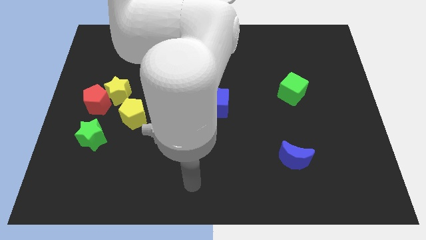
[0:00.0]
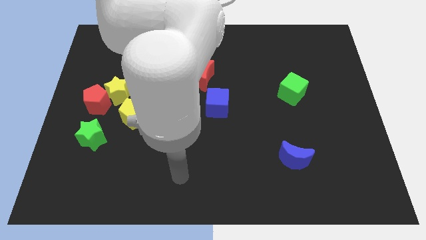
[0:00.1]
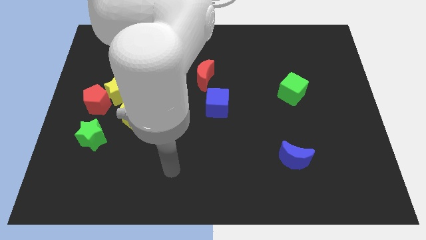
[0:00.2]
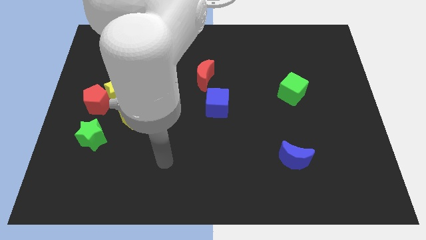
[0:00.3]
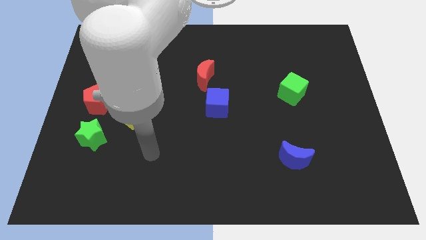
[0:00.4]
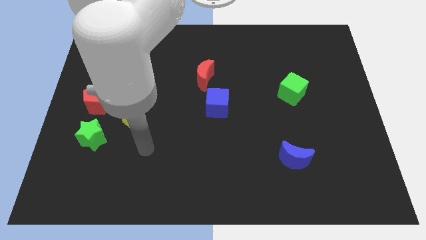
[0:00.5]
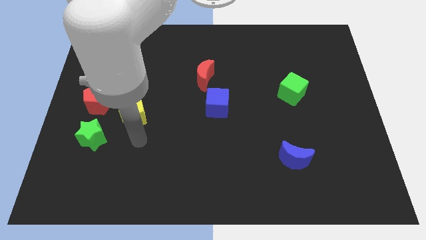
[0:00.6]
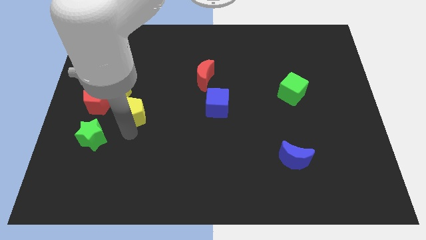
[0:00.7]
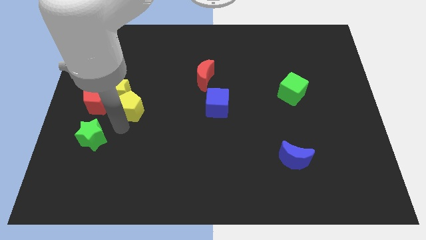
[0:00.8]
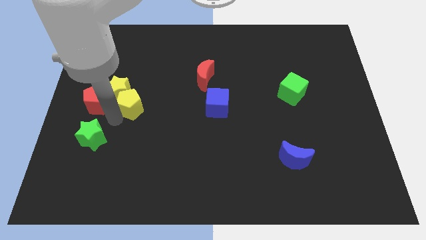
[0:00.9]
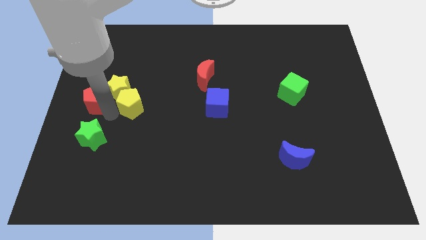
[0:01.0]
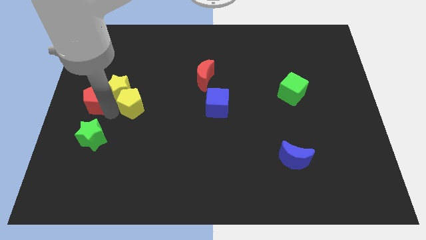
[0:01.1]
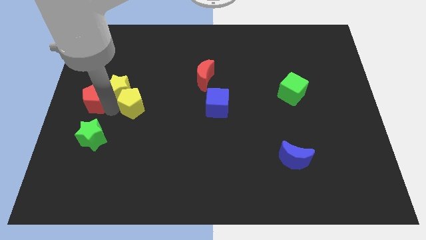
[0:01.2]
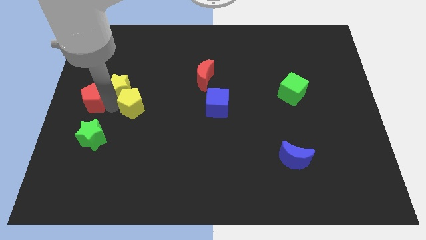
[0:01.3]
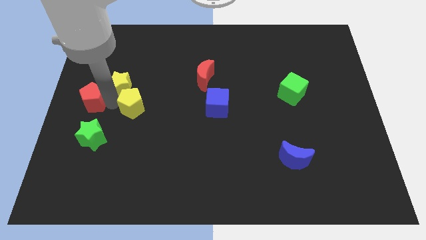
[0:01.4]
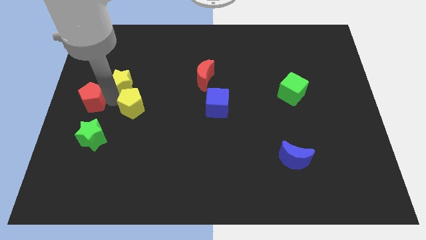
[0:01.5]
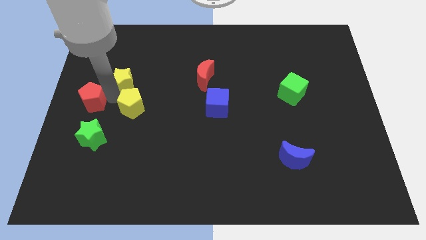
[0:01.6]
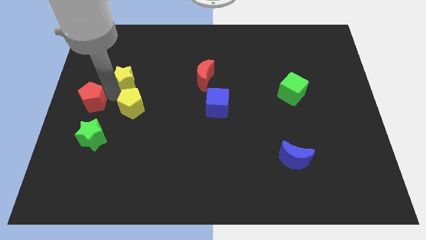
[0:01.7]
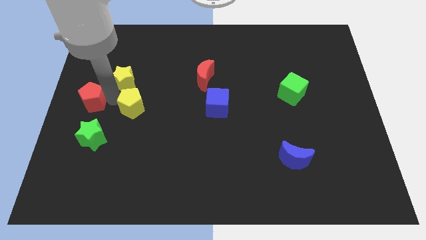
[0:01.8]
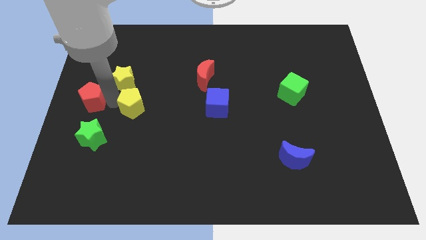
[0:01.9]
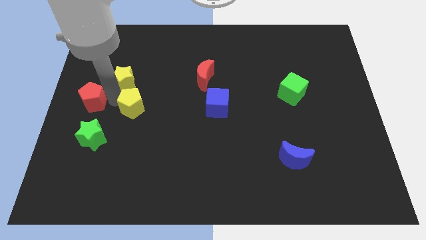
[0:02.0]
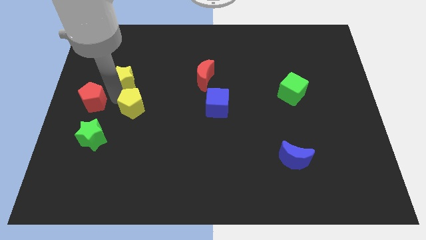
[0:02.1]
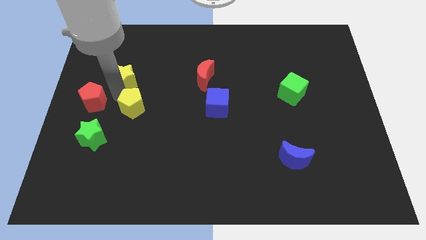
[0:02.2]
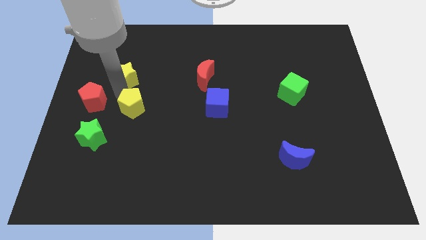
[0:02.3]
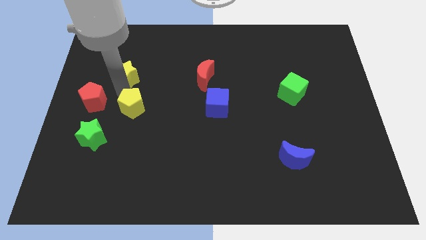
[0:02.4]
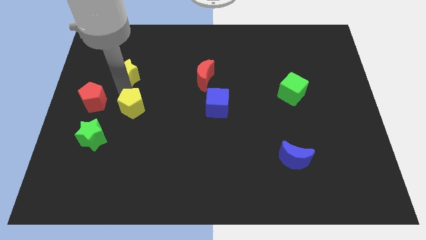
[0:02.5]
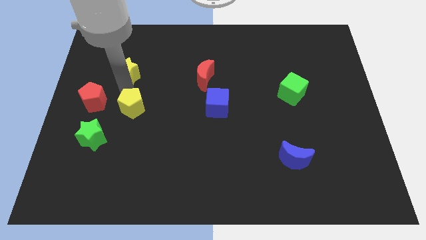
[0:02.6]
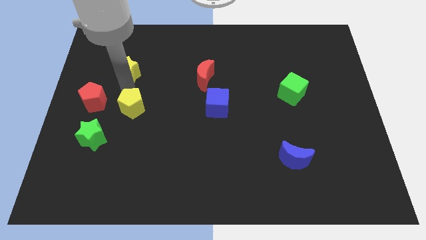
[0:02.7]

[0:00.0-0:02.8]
move the yellow star away from the red pentagon and yellow pentagon

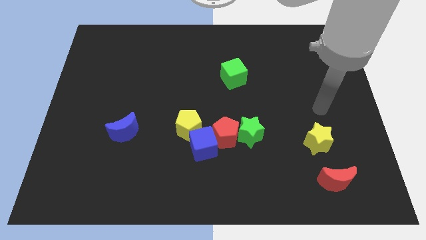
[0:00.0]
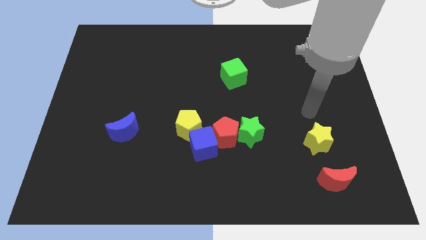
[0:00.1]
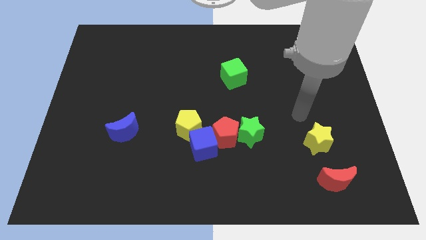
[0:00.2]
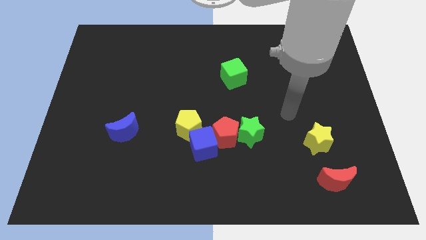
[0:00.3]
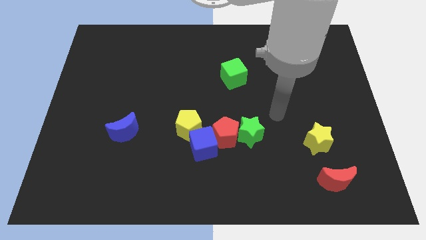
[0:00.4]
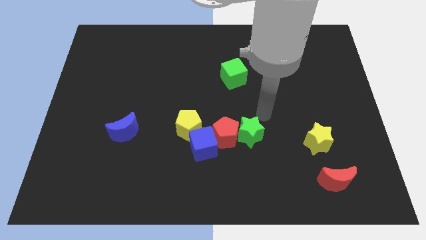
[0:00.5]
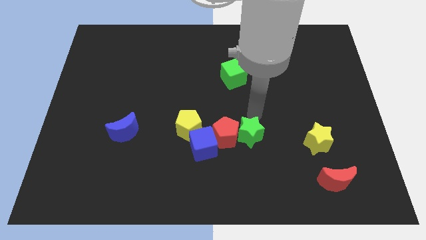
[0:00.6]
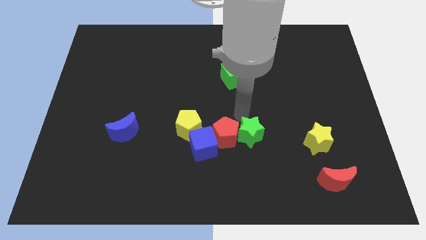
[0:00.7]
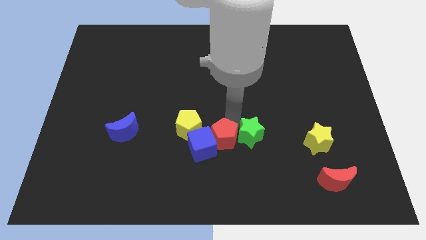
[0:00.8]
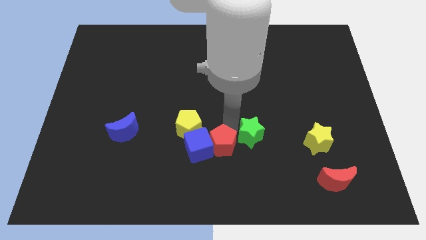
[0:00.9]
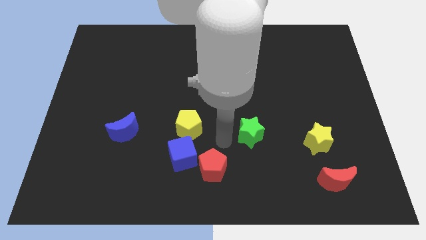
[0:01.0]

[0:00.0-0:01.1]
move the green star away from the red pentagon

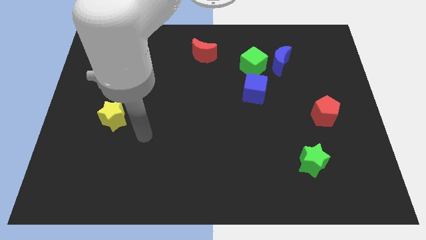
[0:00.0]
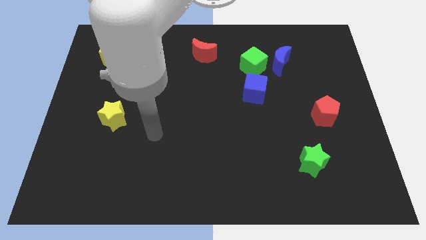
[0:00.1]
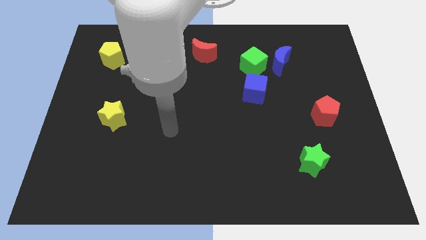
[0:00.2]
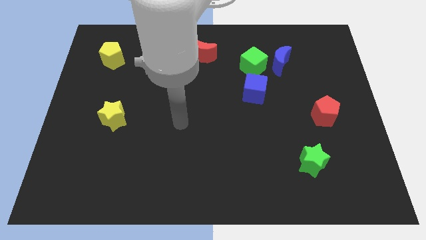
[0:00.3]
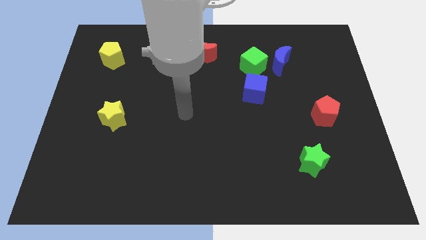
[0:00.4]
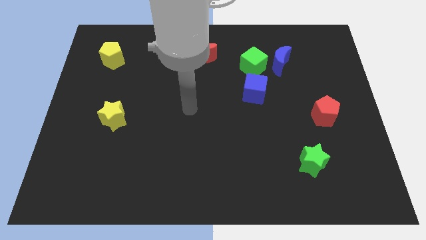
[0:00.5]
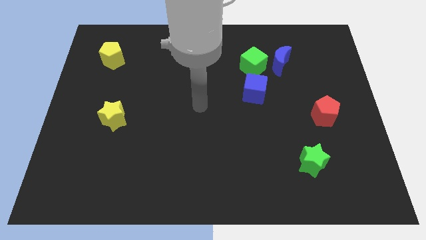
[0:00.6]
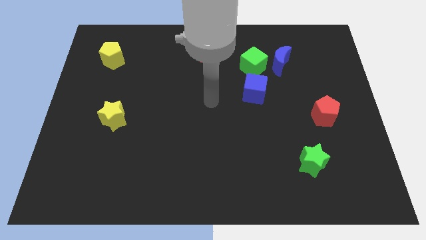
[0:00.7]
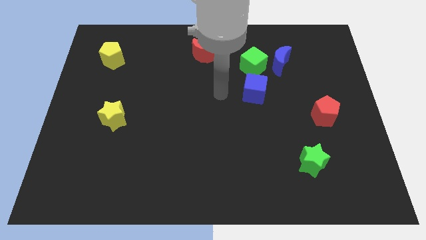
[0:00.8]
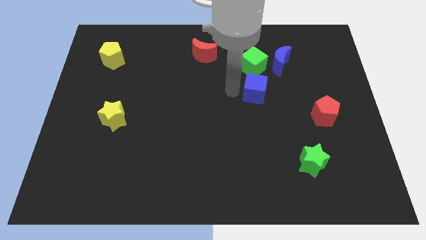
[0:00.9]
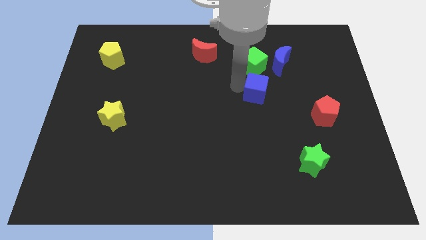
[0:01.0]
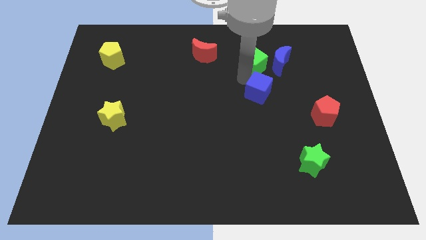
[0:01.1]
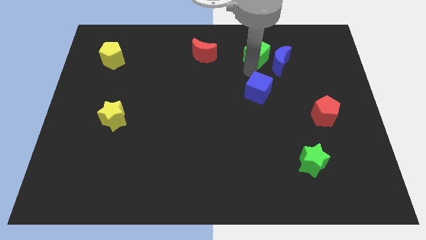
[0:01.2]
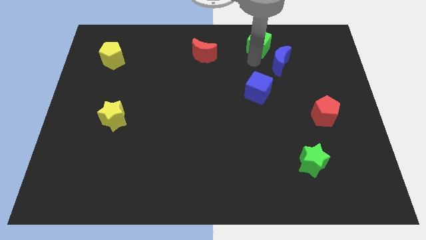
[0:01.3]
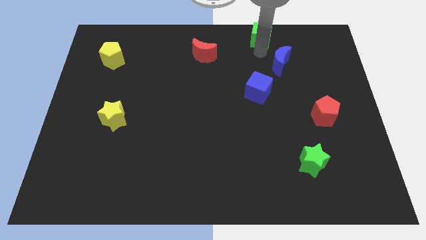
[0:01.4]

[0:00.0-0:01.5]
separate the blue moon from the green cube

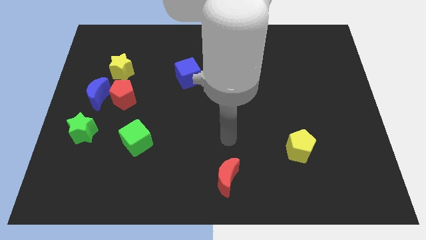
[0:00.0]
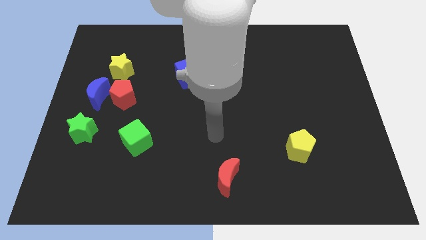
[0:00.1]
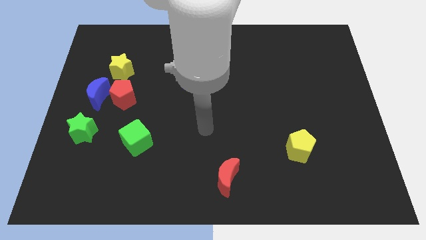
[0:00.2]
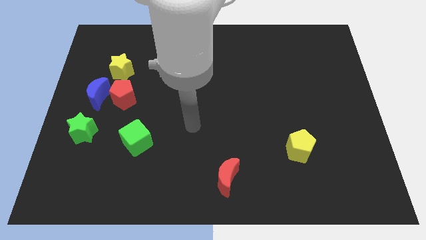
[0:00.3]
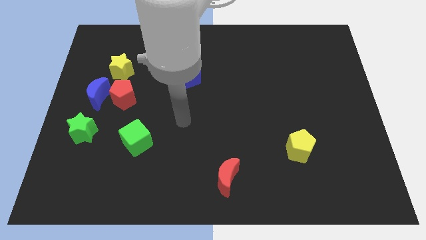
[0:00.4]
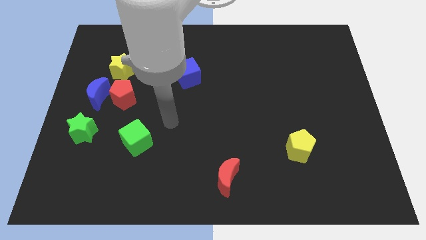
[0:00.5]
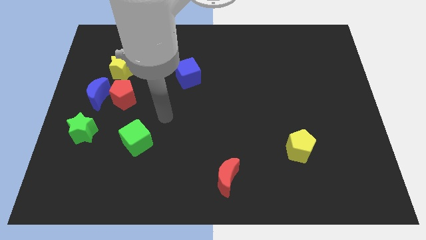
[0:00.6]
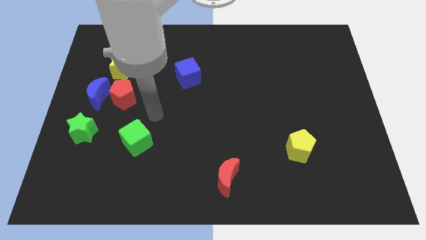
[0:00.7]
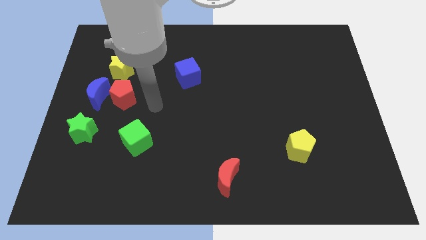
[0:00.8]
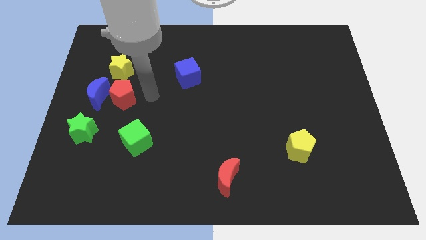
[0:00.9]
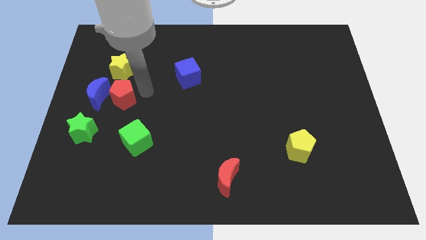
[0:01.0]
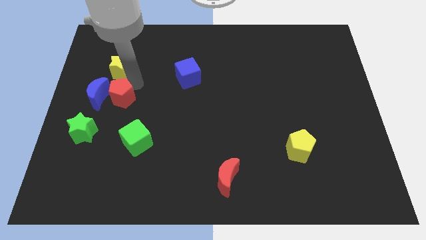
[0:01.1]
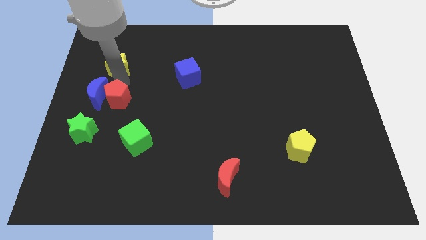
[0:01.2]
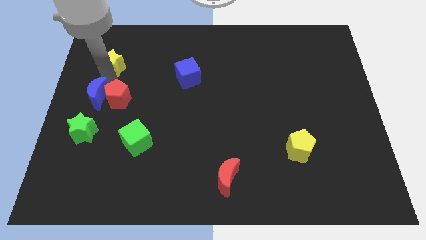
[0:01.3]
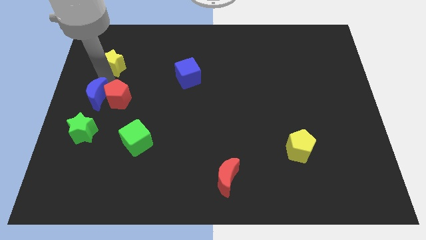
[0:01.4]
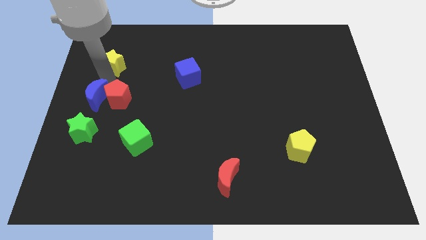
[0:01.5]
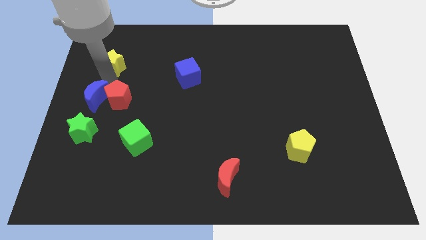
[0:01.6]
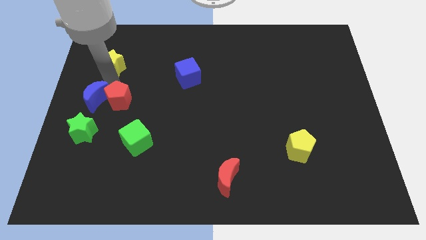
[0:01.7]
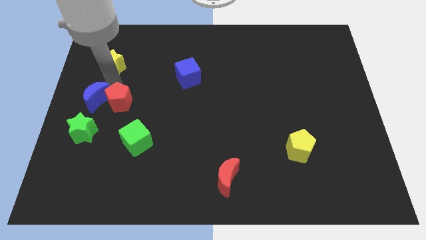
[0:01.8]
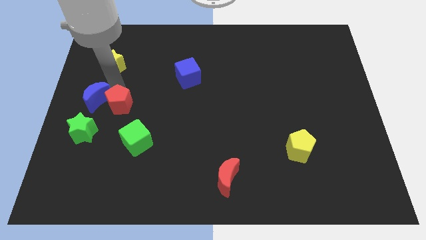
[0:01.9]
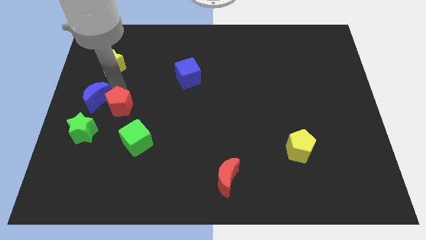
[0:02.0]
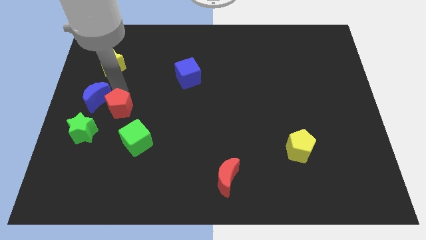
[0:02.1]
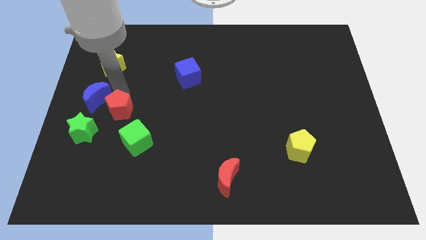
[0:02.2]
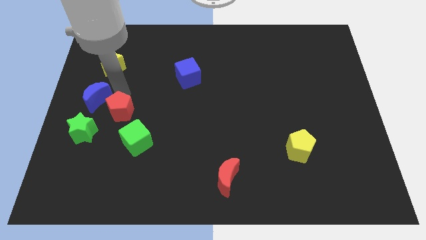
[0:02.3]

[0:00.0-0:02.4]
pull the red pentagon apart from the blue moon and yellow star

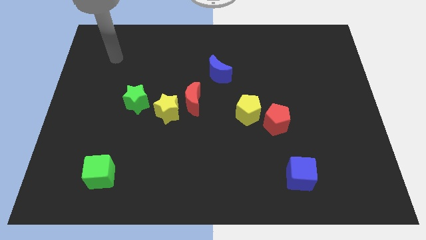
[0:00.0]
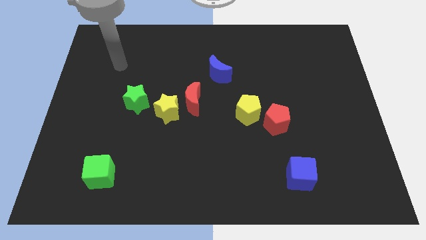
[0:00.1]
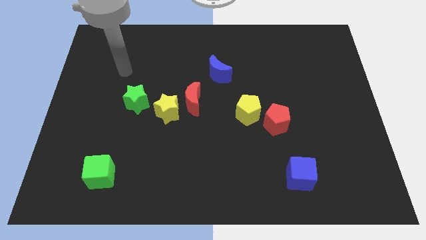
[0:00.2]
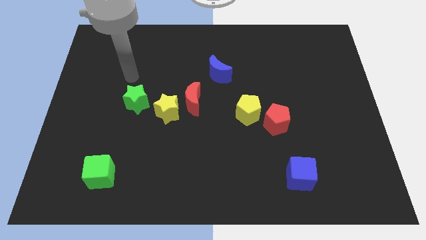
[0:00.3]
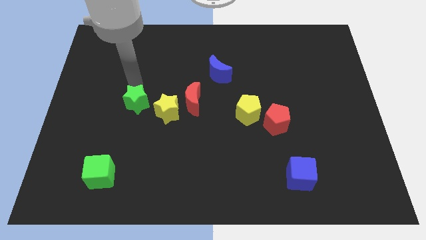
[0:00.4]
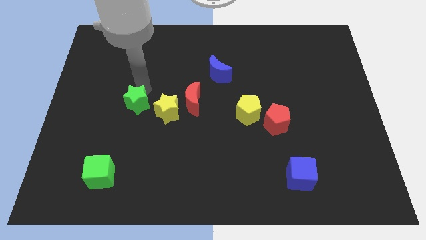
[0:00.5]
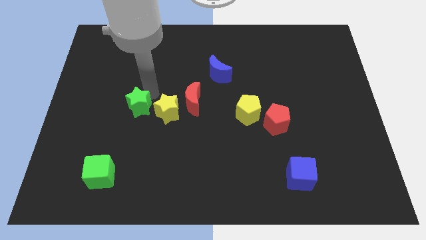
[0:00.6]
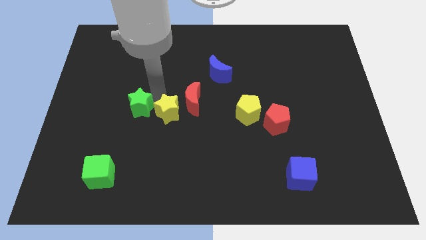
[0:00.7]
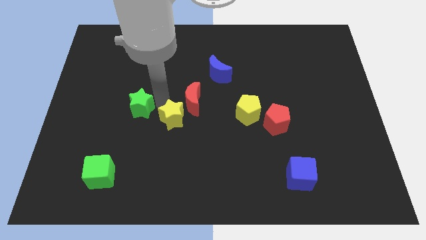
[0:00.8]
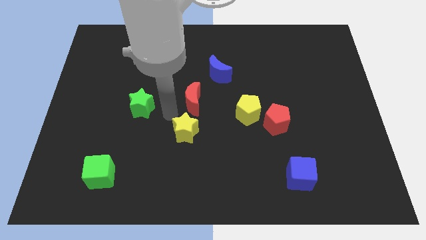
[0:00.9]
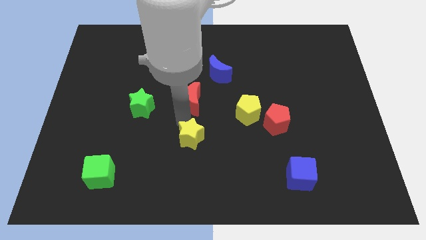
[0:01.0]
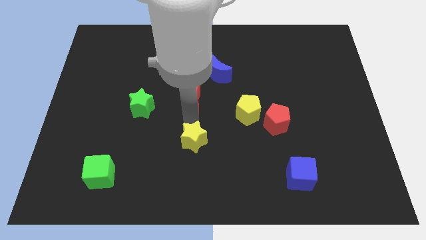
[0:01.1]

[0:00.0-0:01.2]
move the red moon away from the yellow star

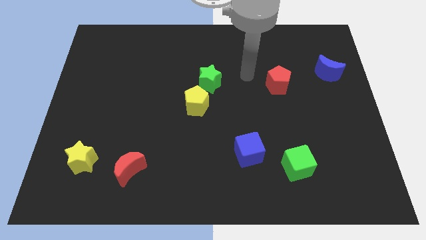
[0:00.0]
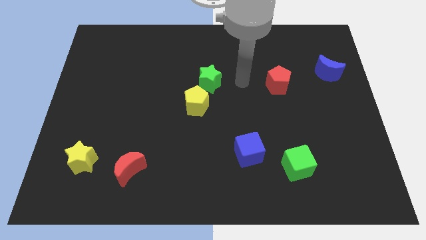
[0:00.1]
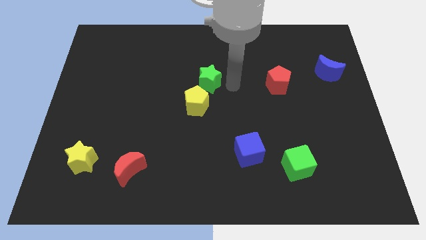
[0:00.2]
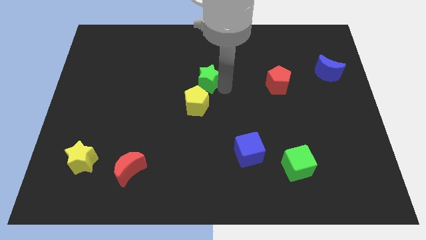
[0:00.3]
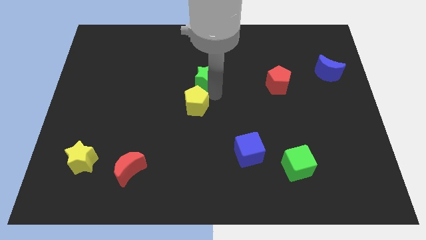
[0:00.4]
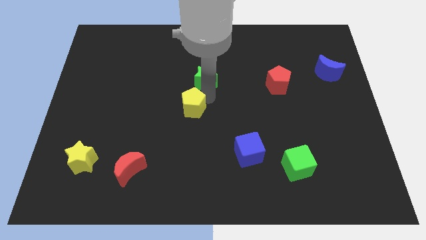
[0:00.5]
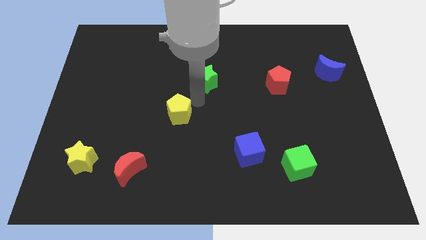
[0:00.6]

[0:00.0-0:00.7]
move the green star away from the yellow pentagon
